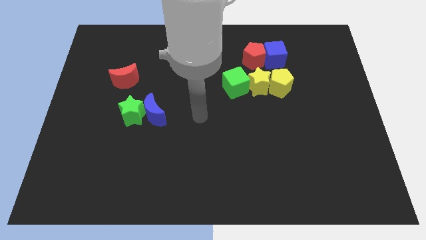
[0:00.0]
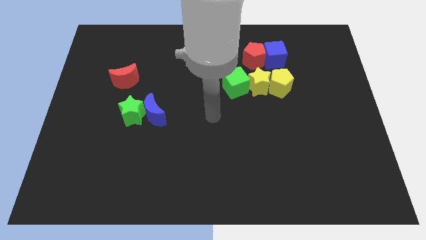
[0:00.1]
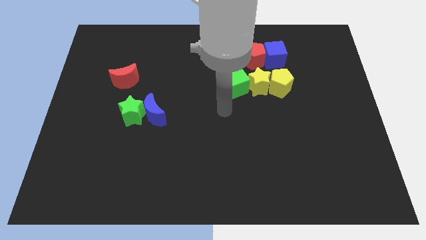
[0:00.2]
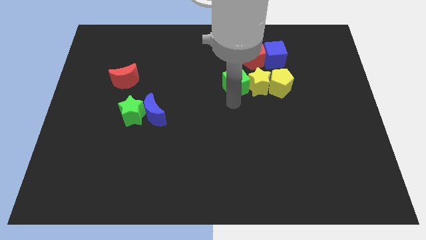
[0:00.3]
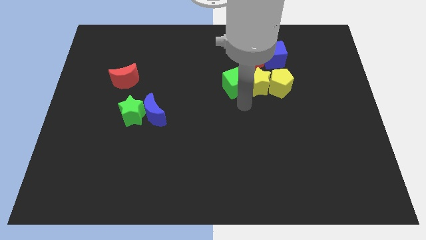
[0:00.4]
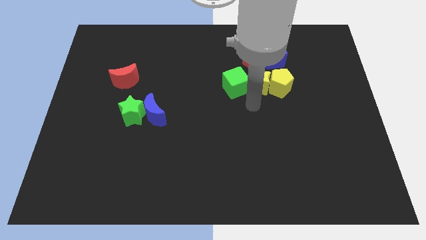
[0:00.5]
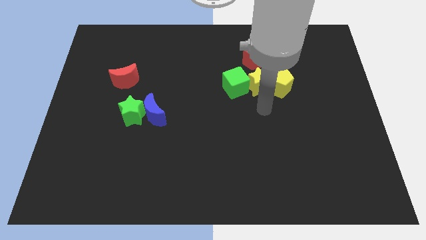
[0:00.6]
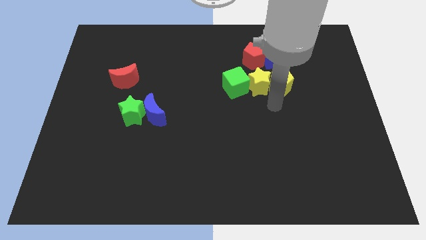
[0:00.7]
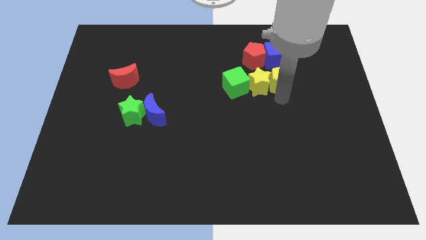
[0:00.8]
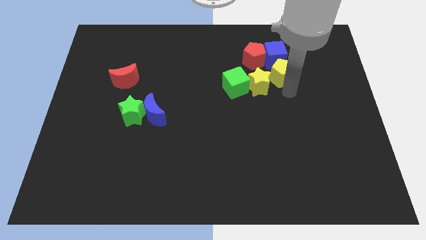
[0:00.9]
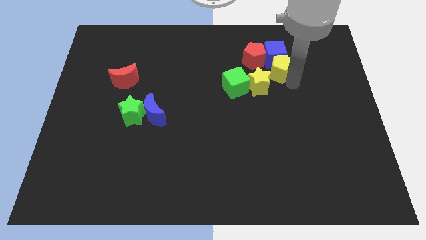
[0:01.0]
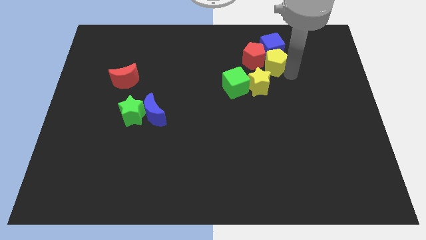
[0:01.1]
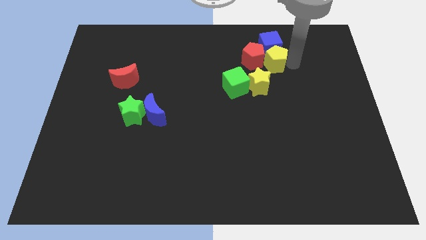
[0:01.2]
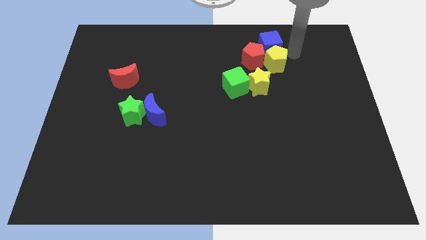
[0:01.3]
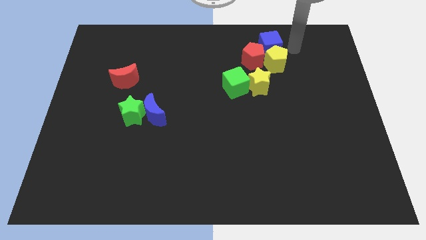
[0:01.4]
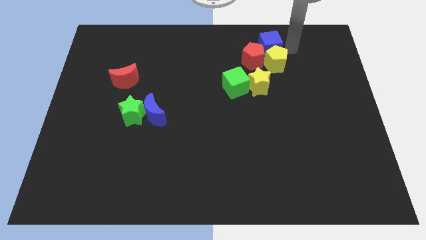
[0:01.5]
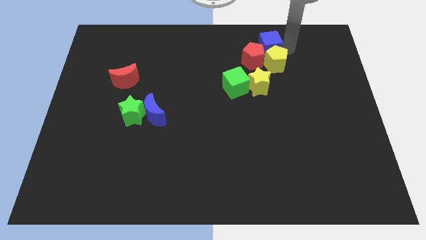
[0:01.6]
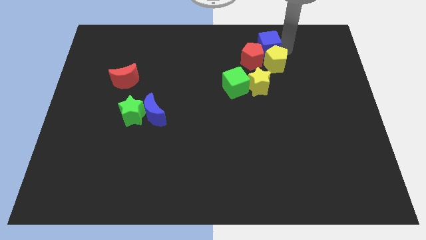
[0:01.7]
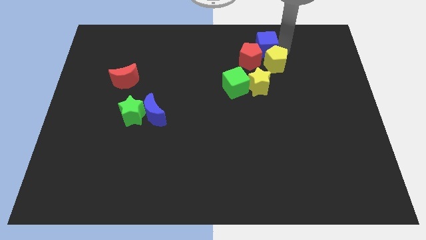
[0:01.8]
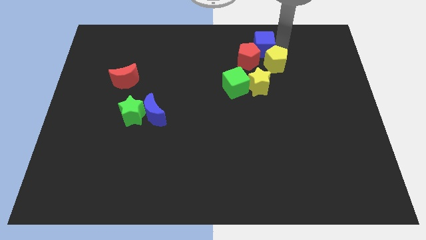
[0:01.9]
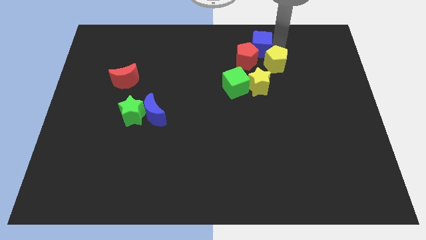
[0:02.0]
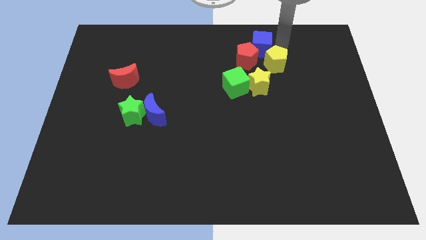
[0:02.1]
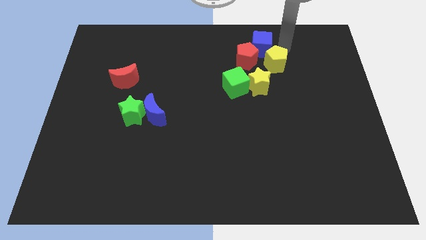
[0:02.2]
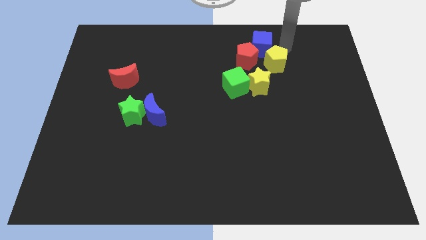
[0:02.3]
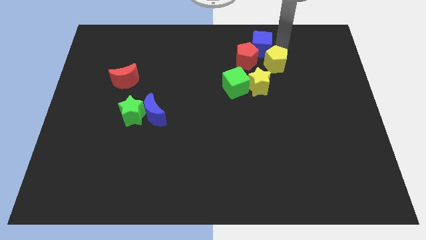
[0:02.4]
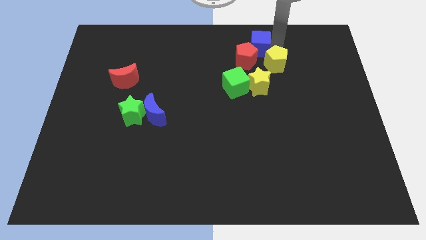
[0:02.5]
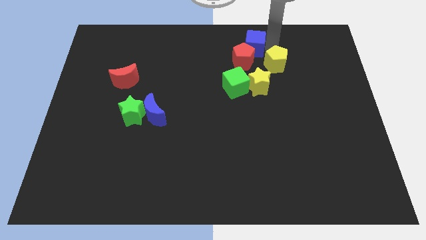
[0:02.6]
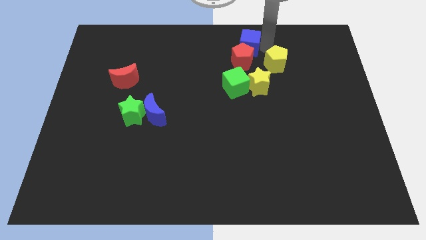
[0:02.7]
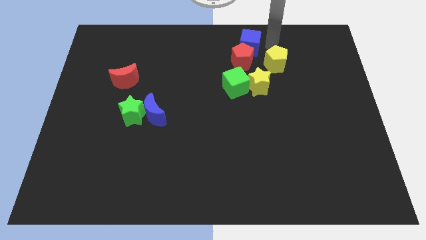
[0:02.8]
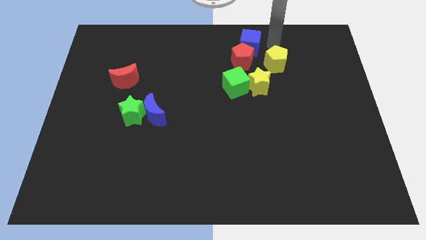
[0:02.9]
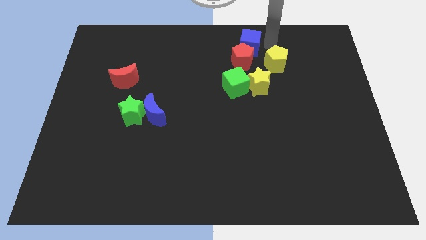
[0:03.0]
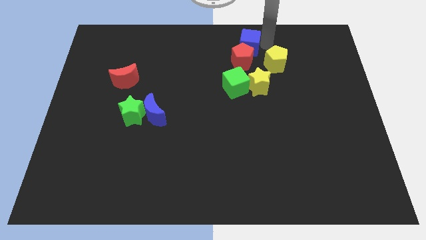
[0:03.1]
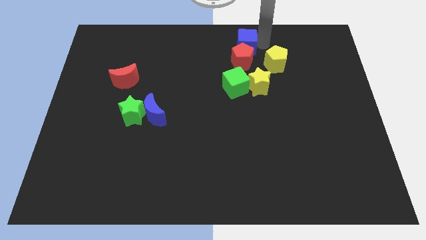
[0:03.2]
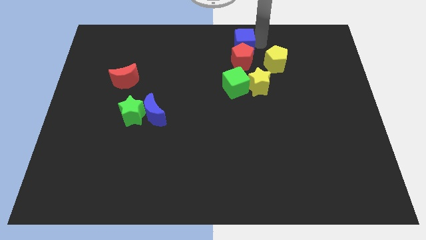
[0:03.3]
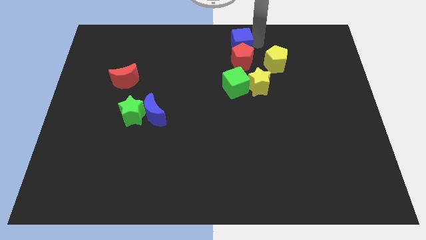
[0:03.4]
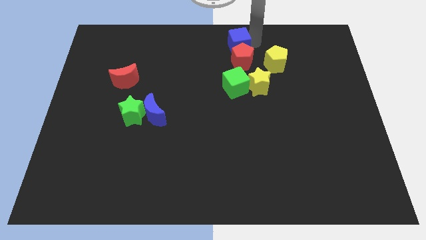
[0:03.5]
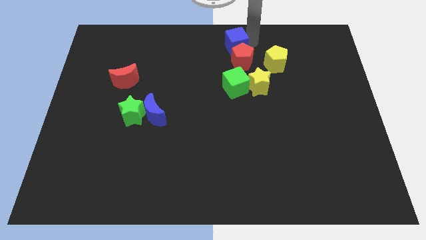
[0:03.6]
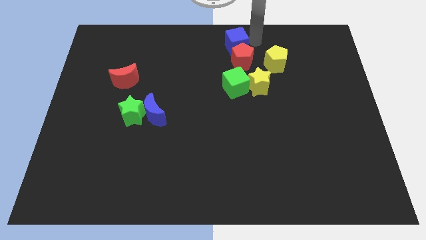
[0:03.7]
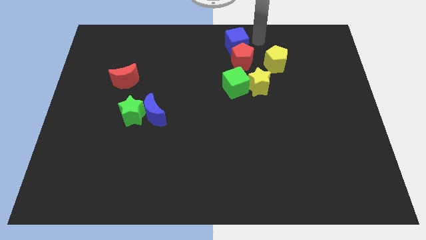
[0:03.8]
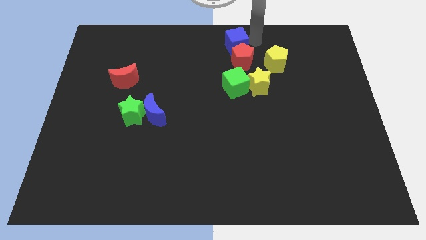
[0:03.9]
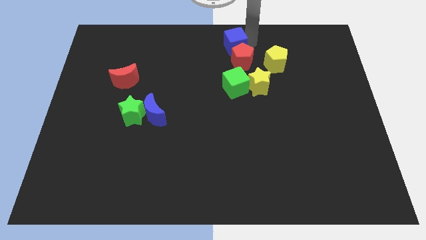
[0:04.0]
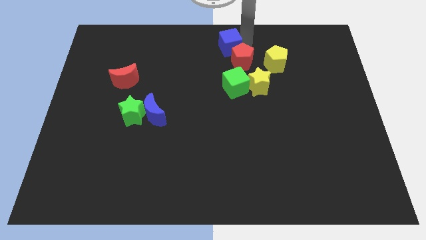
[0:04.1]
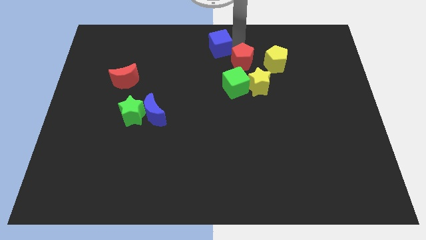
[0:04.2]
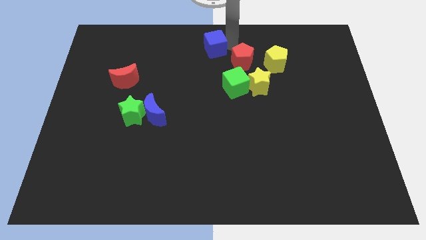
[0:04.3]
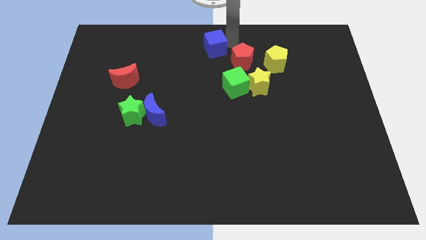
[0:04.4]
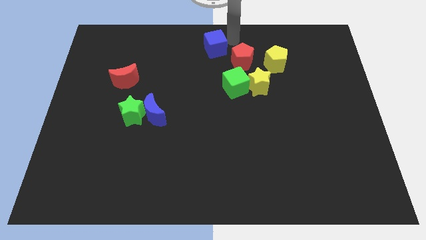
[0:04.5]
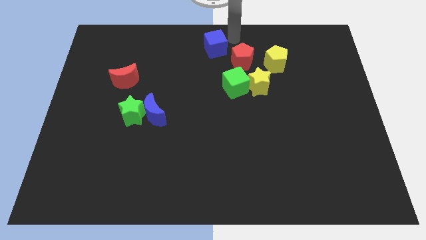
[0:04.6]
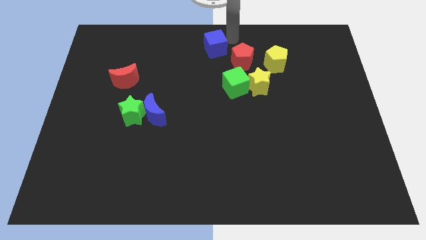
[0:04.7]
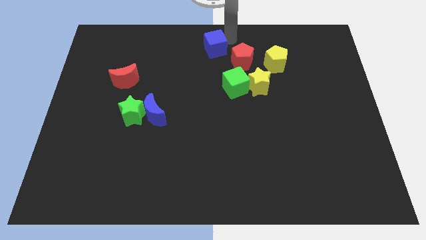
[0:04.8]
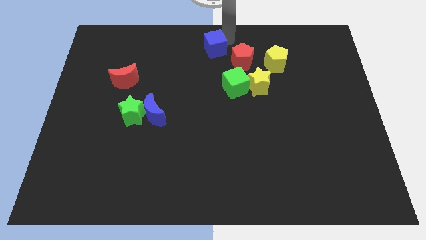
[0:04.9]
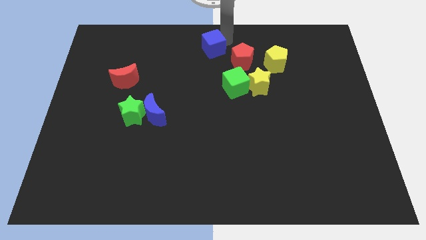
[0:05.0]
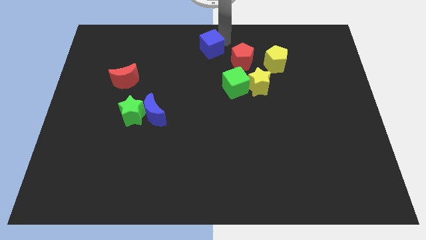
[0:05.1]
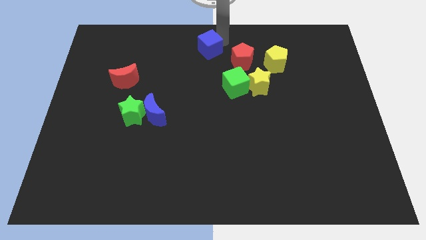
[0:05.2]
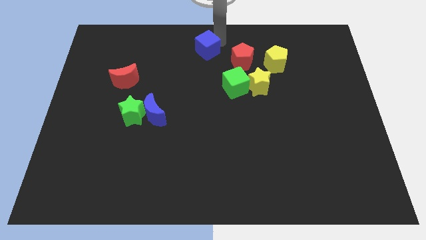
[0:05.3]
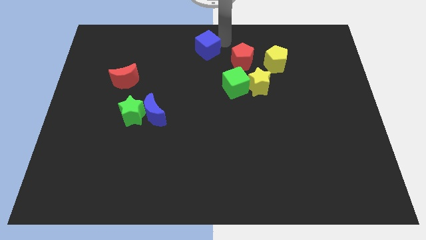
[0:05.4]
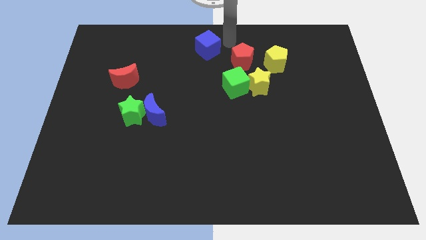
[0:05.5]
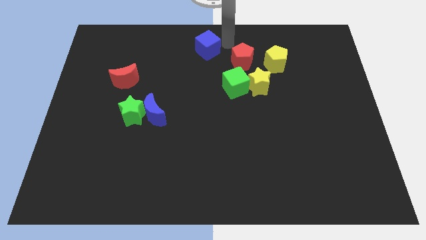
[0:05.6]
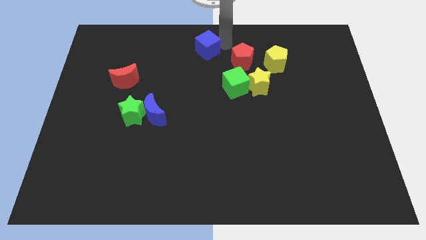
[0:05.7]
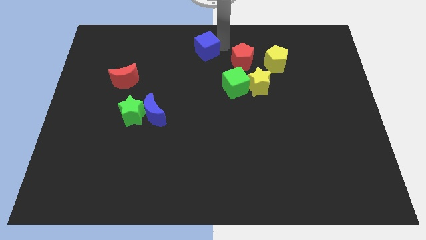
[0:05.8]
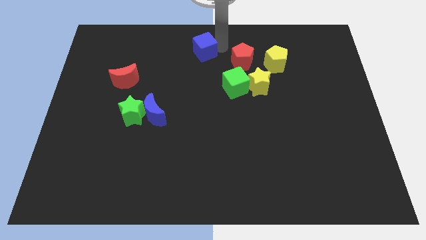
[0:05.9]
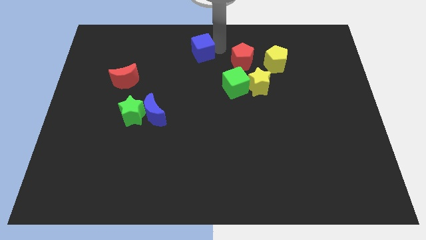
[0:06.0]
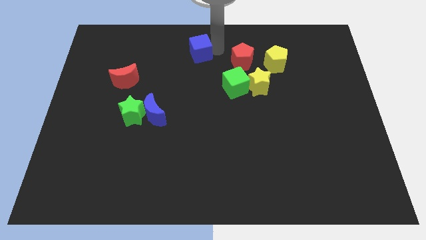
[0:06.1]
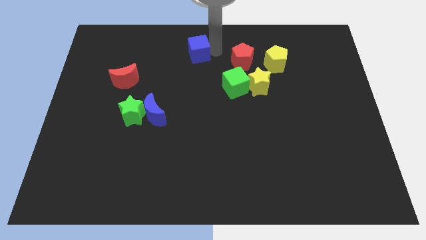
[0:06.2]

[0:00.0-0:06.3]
push the blue cube left

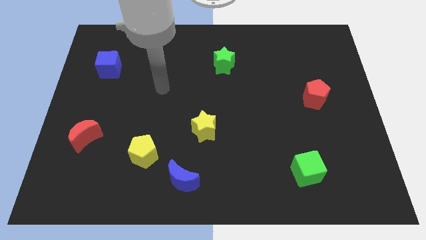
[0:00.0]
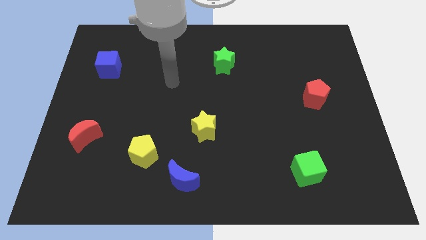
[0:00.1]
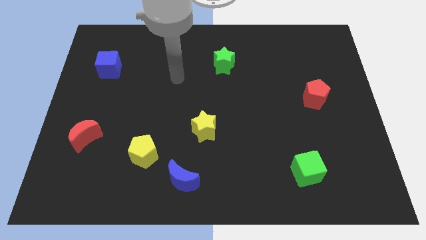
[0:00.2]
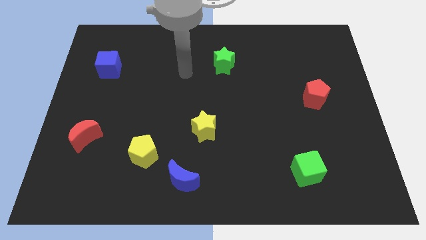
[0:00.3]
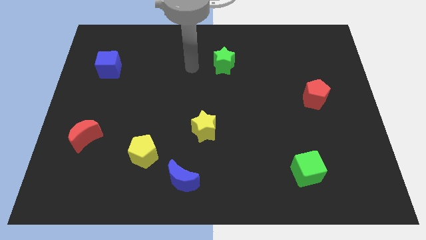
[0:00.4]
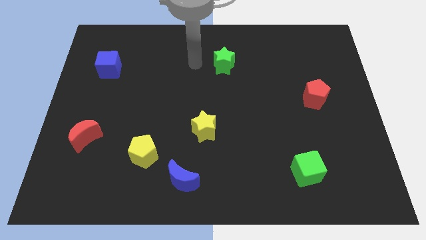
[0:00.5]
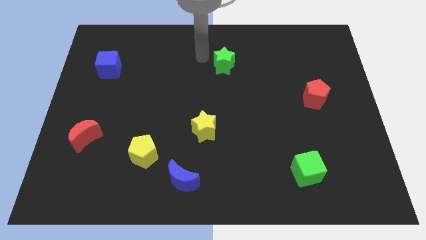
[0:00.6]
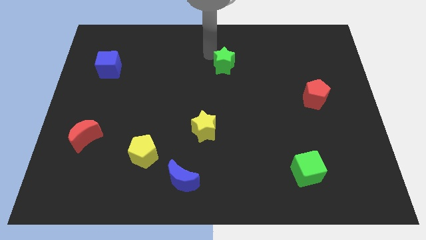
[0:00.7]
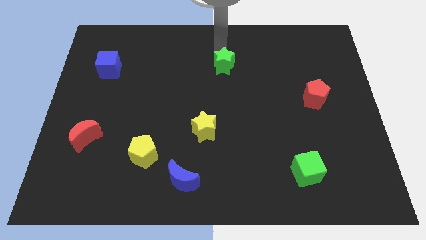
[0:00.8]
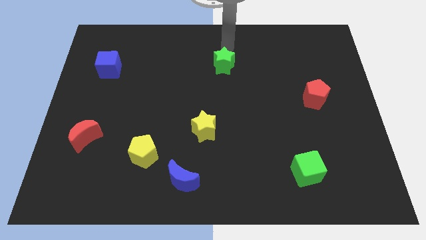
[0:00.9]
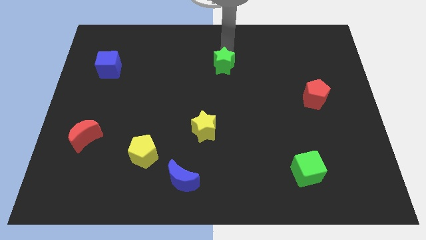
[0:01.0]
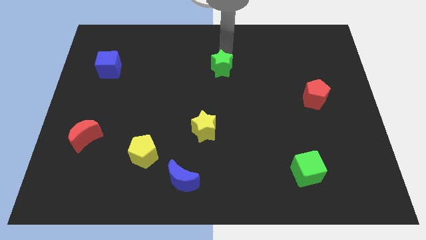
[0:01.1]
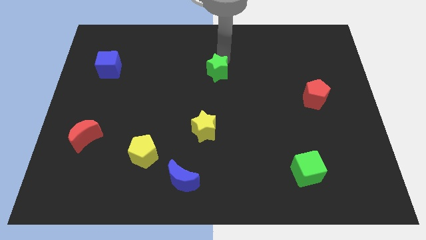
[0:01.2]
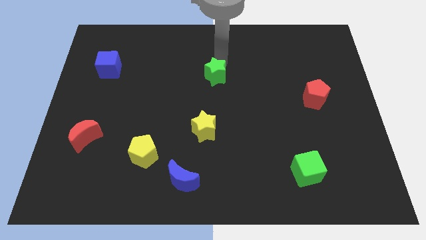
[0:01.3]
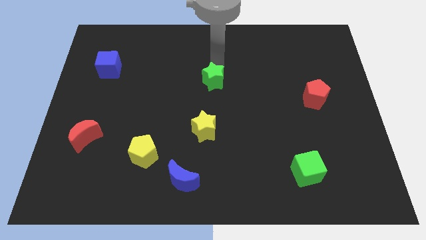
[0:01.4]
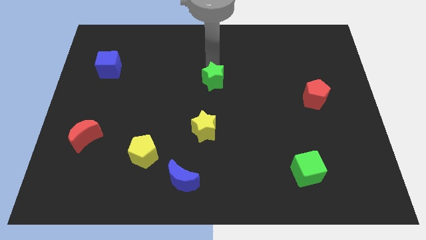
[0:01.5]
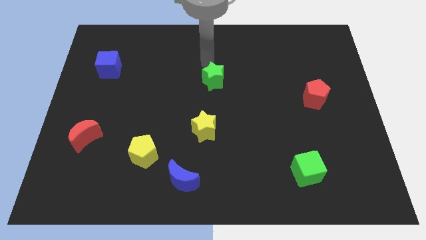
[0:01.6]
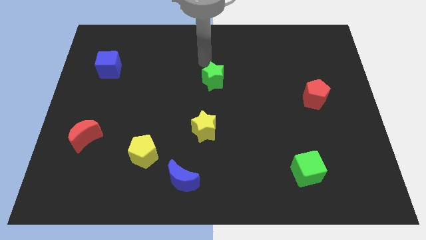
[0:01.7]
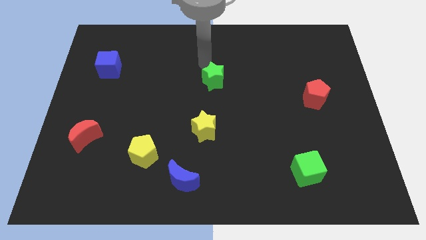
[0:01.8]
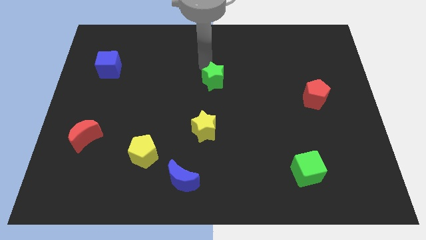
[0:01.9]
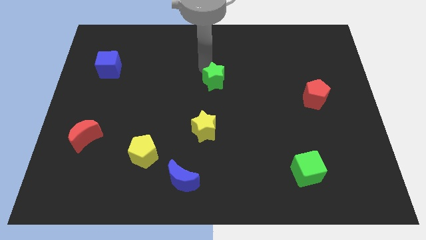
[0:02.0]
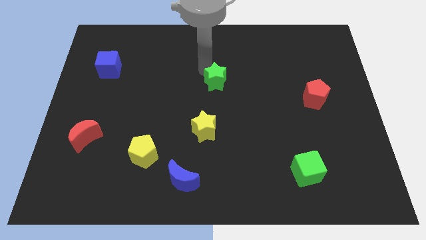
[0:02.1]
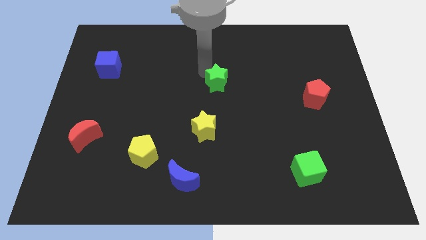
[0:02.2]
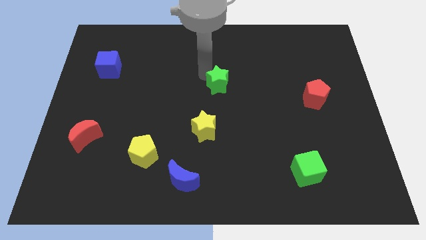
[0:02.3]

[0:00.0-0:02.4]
push the green star down a little
